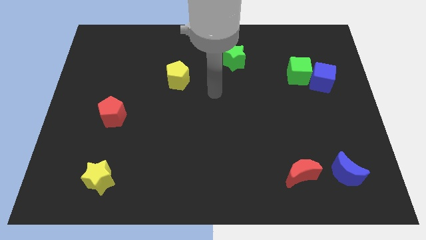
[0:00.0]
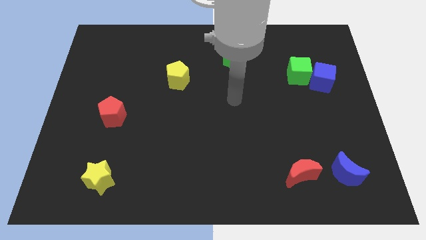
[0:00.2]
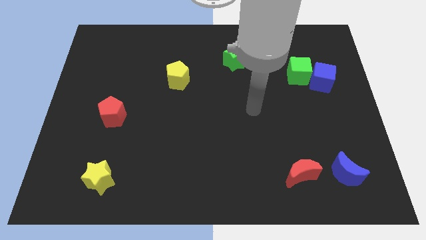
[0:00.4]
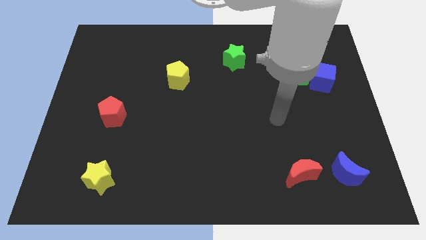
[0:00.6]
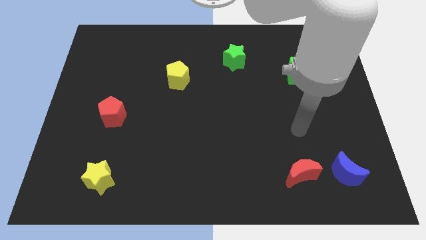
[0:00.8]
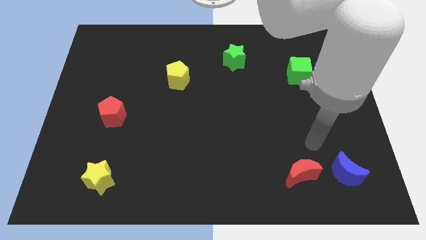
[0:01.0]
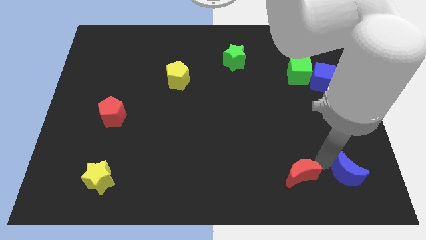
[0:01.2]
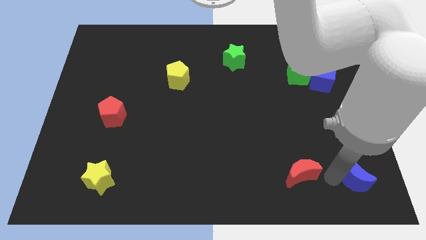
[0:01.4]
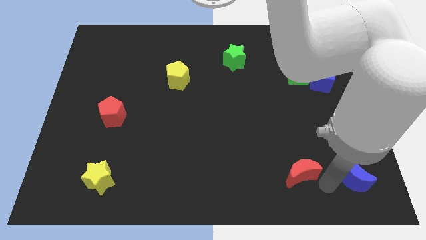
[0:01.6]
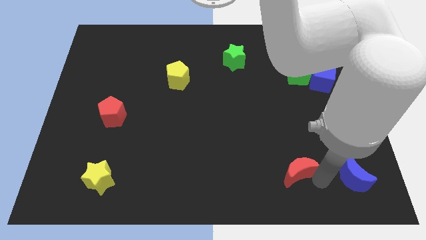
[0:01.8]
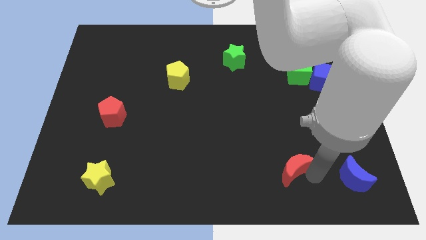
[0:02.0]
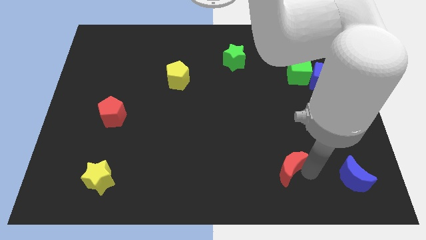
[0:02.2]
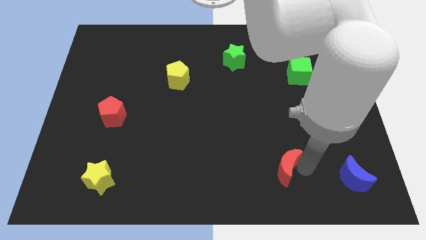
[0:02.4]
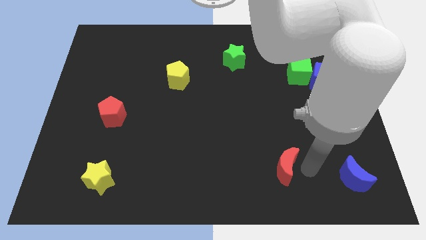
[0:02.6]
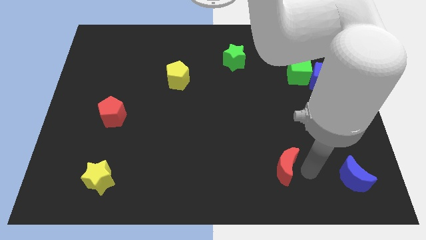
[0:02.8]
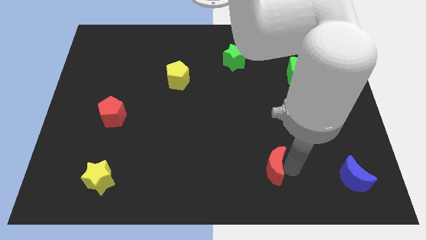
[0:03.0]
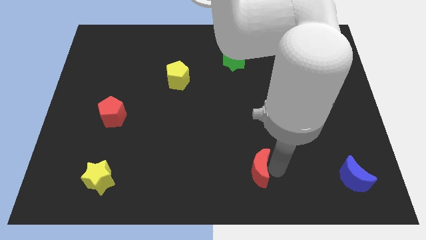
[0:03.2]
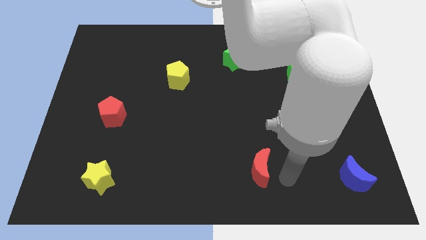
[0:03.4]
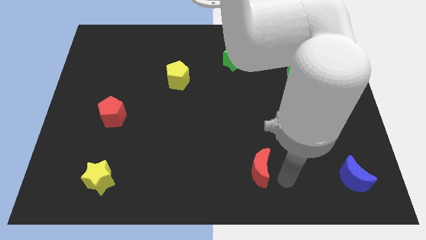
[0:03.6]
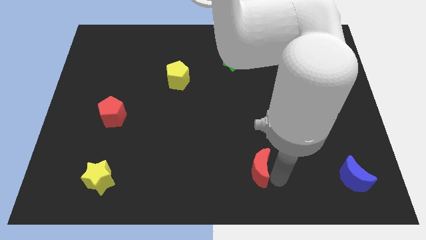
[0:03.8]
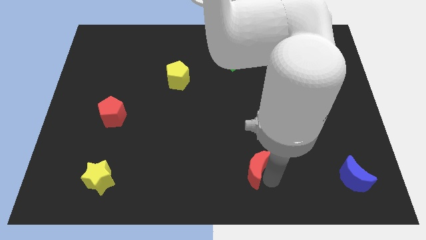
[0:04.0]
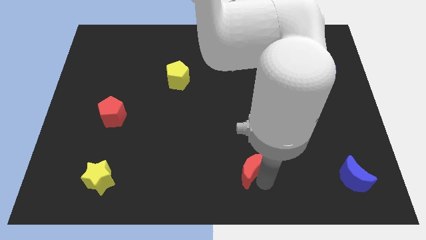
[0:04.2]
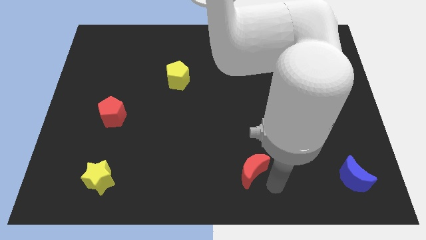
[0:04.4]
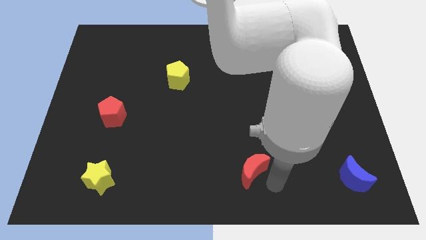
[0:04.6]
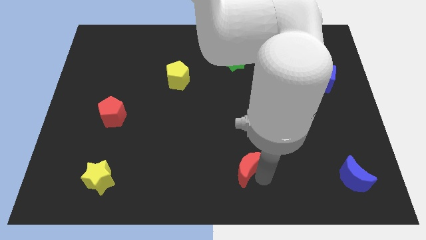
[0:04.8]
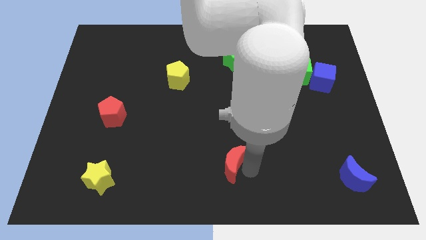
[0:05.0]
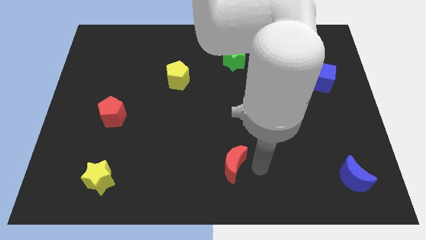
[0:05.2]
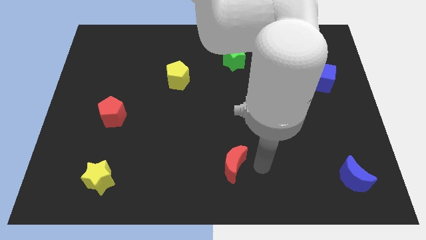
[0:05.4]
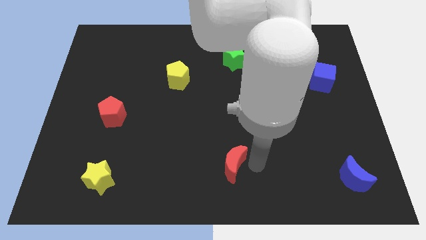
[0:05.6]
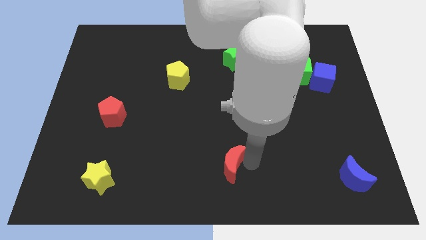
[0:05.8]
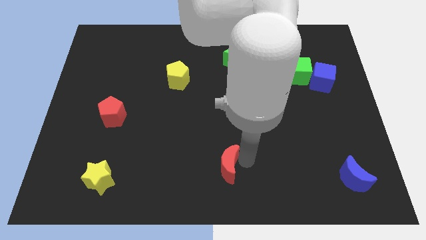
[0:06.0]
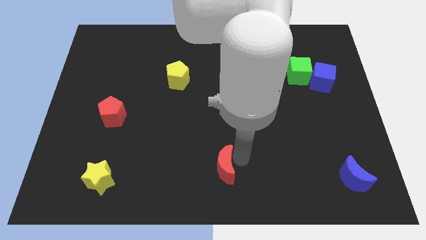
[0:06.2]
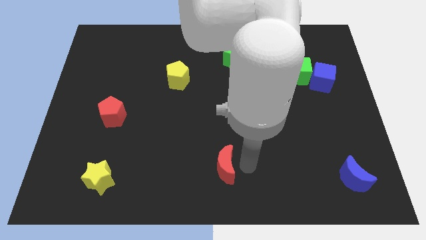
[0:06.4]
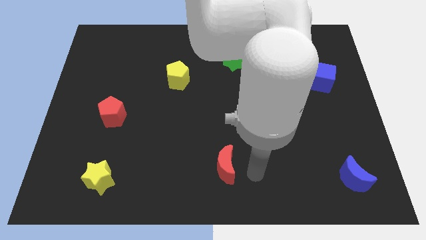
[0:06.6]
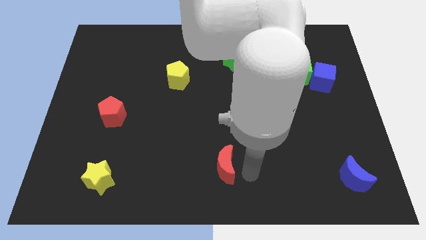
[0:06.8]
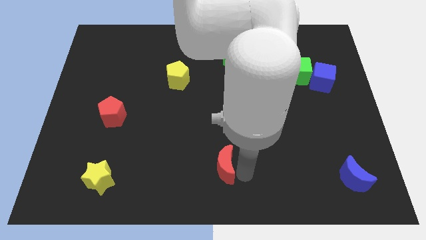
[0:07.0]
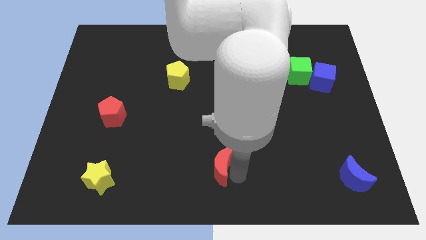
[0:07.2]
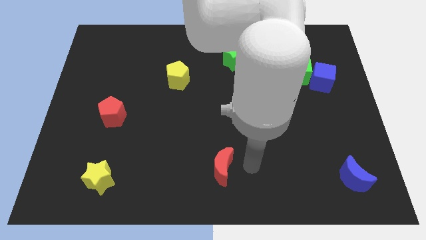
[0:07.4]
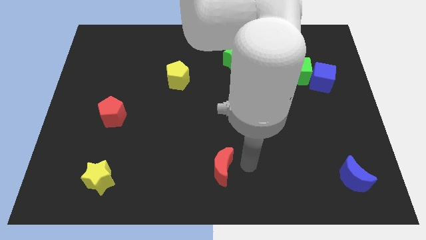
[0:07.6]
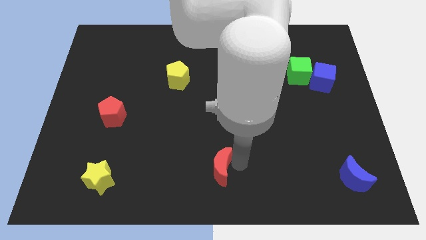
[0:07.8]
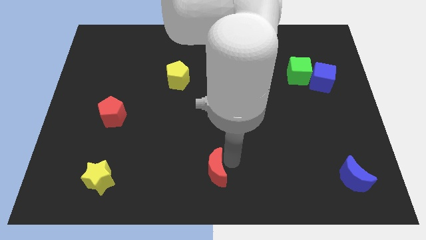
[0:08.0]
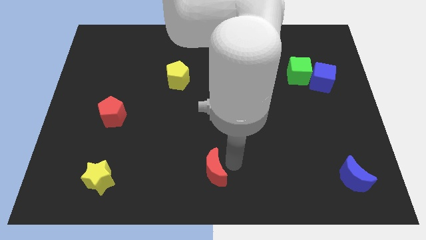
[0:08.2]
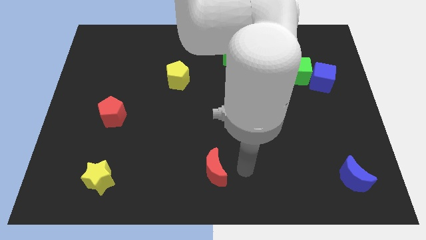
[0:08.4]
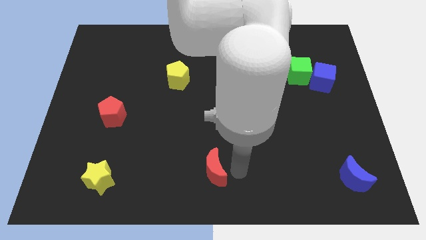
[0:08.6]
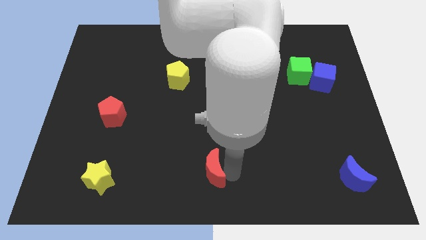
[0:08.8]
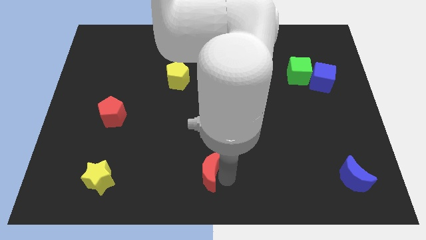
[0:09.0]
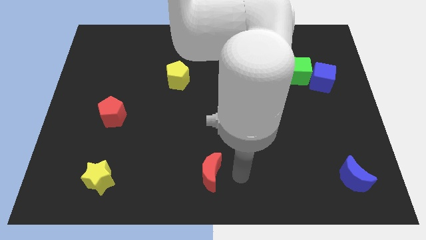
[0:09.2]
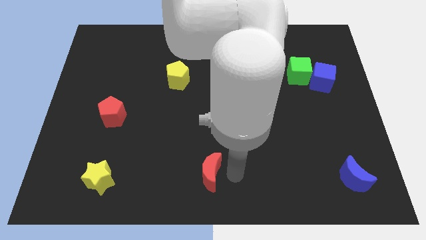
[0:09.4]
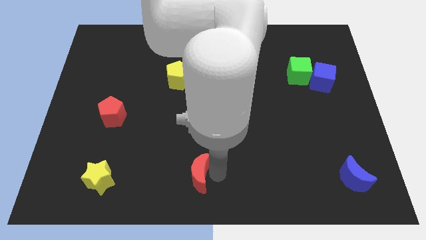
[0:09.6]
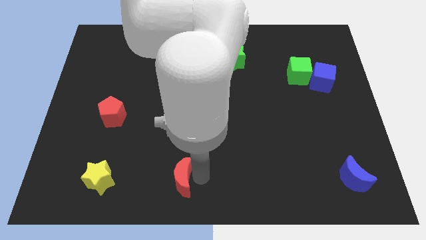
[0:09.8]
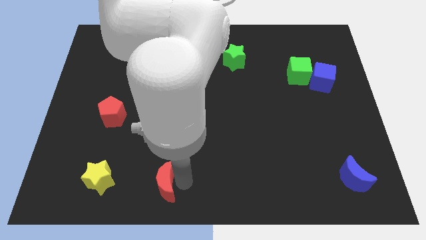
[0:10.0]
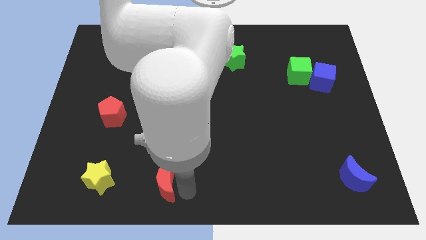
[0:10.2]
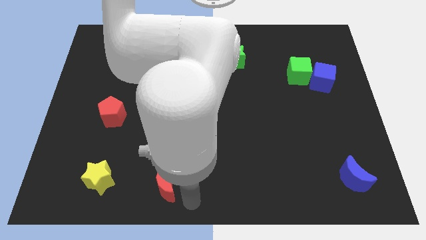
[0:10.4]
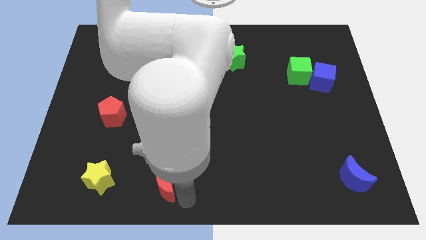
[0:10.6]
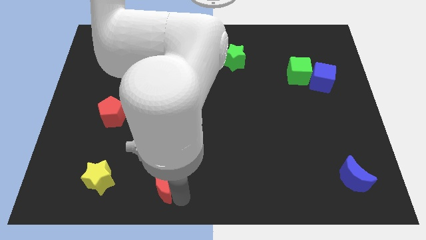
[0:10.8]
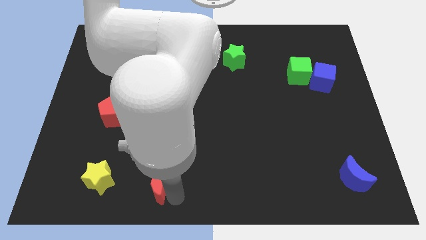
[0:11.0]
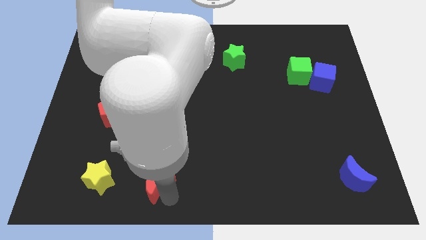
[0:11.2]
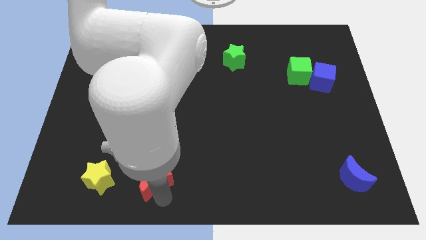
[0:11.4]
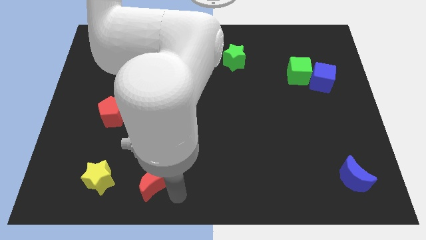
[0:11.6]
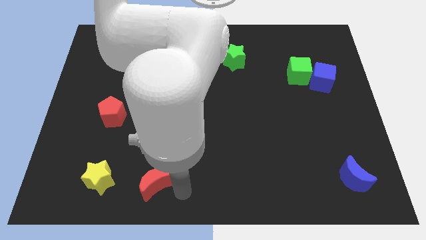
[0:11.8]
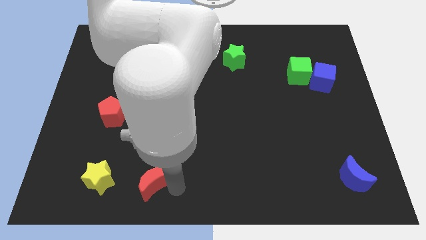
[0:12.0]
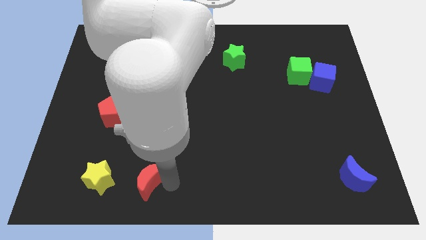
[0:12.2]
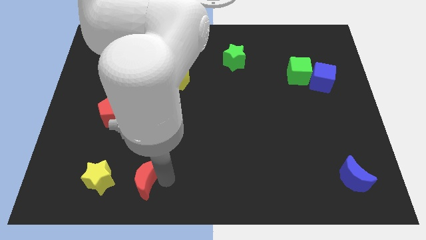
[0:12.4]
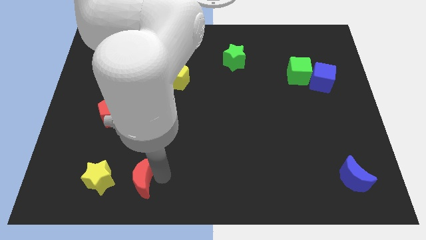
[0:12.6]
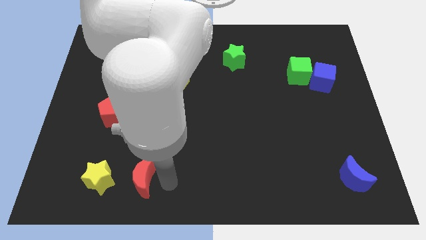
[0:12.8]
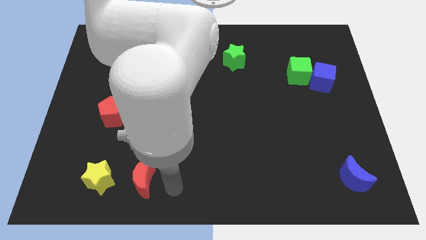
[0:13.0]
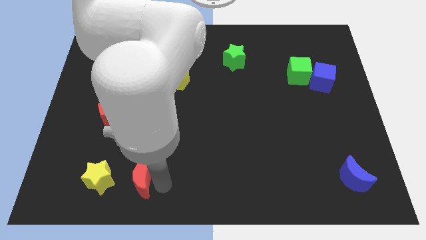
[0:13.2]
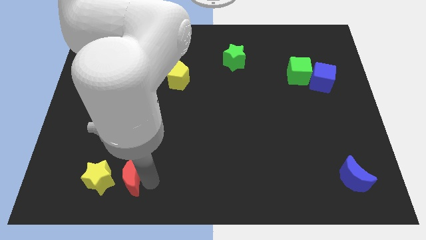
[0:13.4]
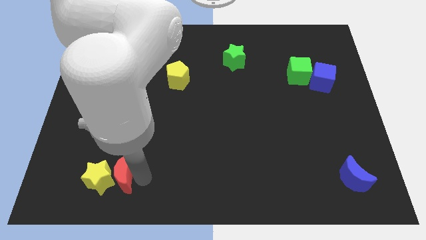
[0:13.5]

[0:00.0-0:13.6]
move the red moon next to the yellow star

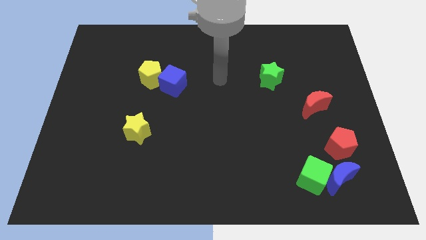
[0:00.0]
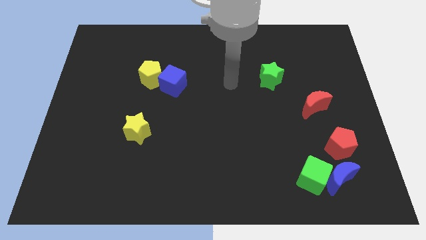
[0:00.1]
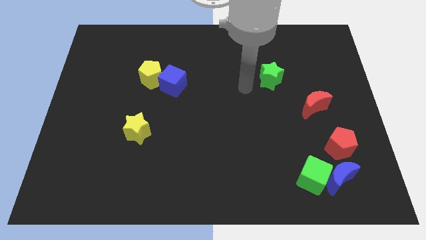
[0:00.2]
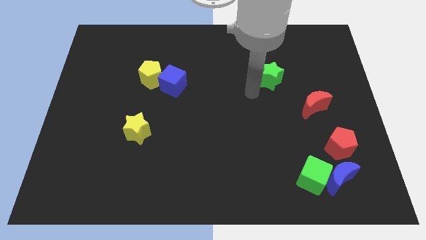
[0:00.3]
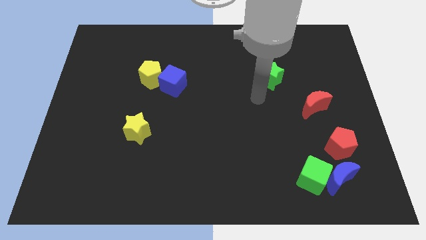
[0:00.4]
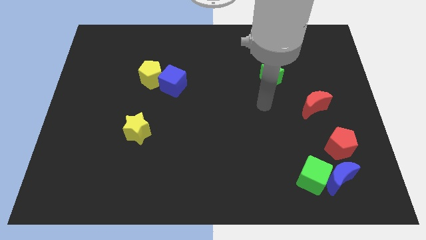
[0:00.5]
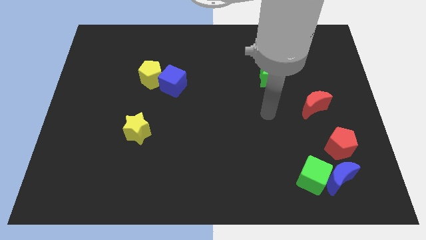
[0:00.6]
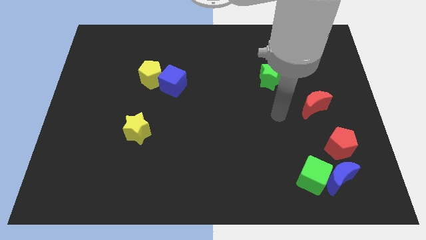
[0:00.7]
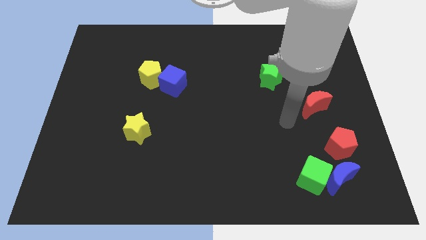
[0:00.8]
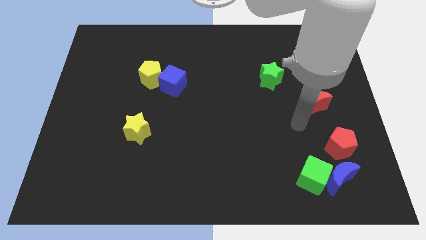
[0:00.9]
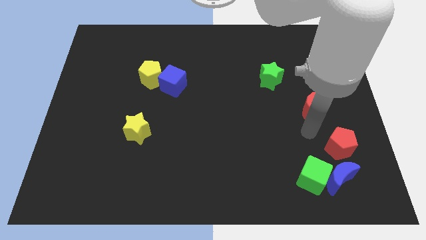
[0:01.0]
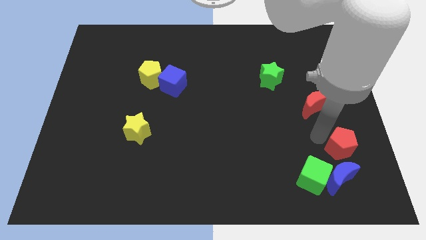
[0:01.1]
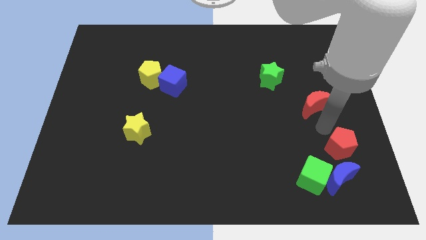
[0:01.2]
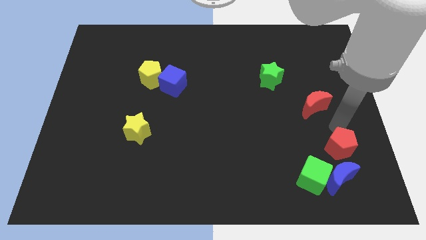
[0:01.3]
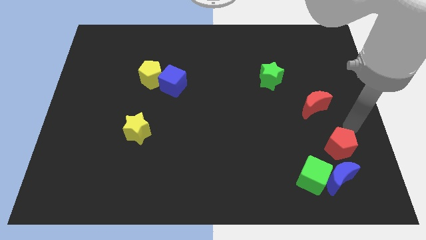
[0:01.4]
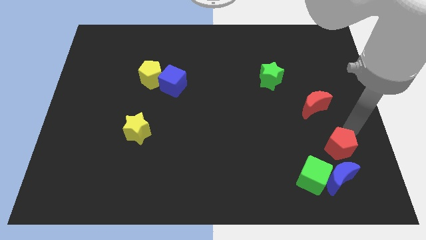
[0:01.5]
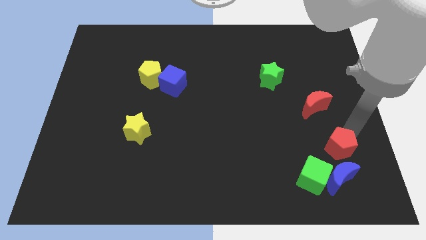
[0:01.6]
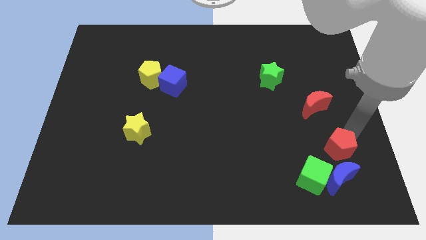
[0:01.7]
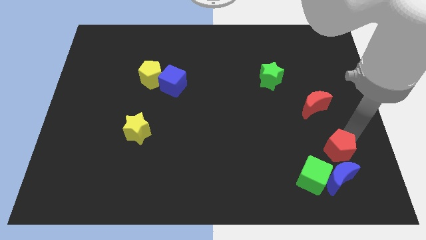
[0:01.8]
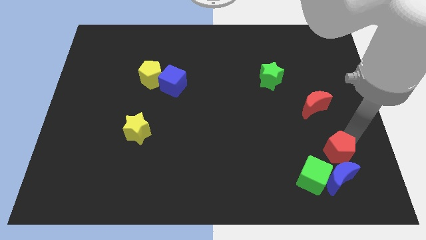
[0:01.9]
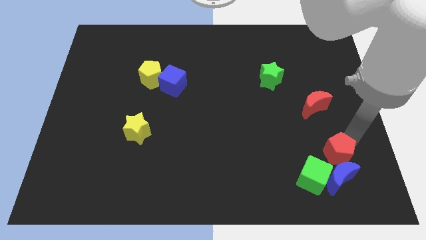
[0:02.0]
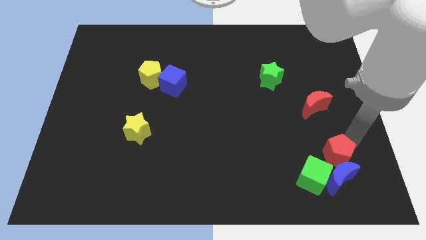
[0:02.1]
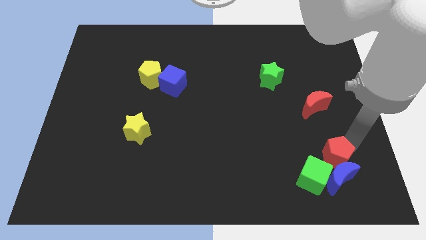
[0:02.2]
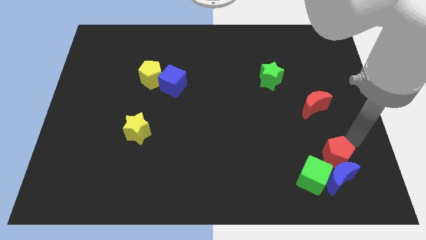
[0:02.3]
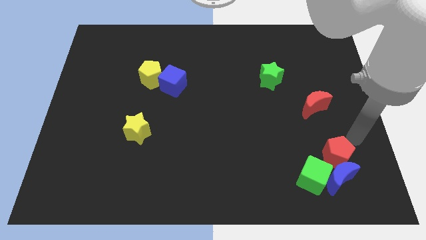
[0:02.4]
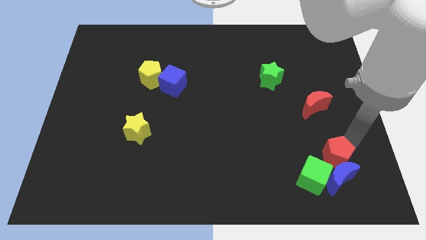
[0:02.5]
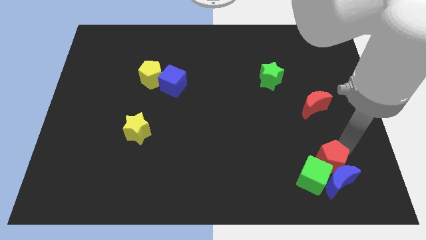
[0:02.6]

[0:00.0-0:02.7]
put the red pentagon towards the green cube
